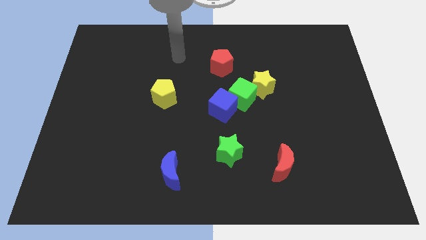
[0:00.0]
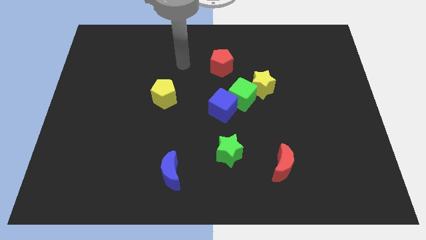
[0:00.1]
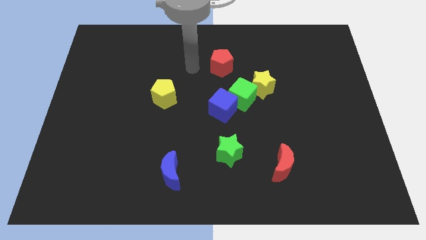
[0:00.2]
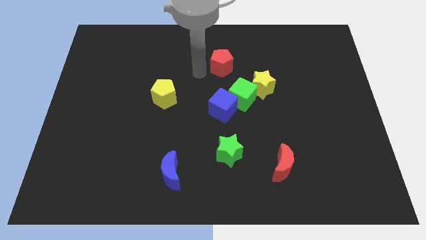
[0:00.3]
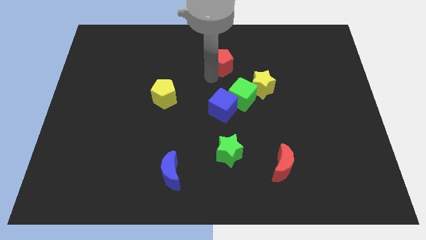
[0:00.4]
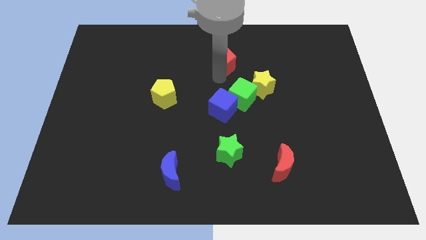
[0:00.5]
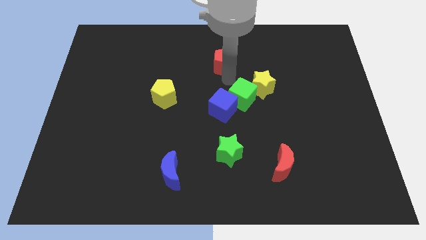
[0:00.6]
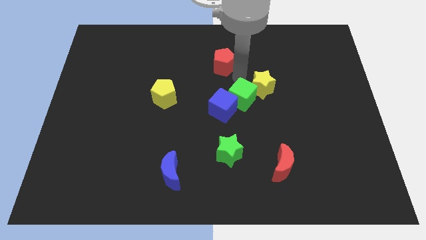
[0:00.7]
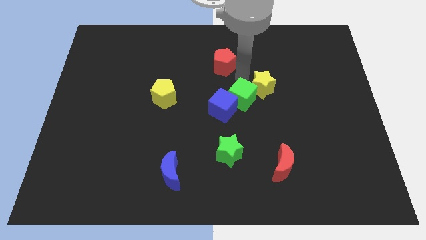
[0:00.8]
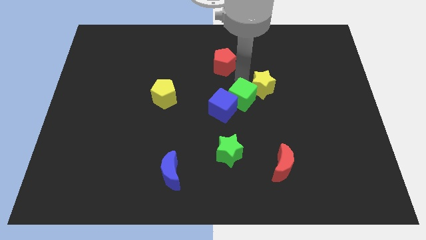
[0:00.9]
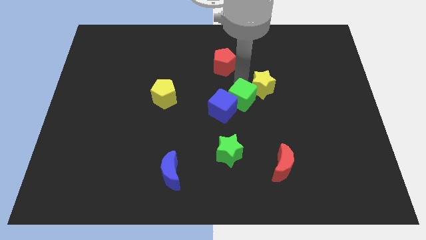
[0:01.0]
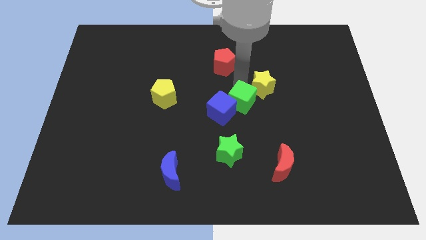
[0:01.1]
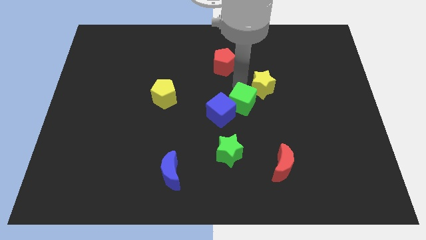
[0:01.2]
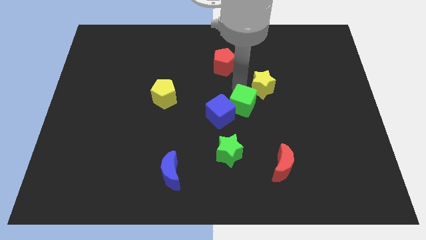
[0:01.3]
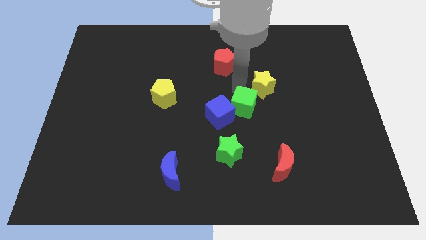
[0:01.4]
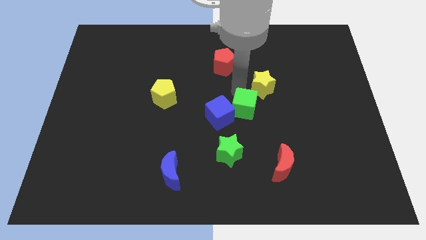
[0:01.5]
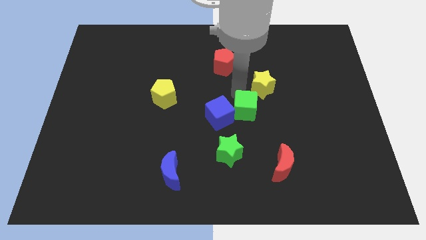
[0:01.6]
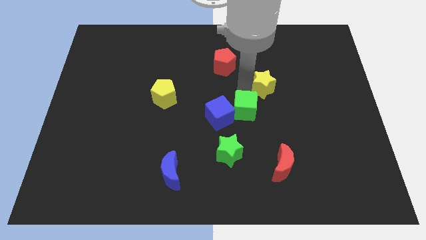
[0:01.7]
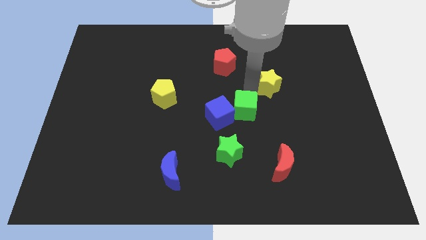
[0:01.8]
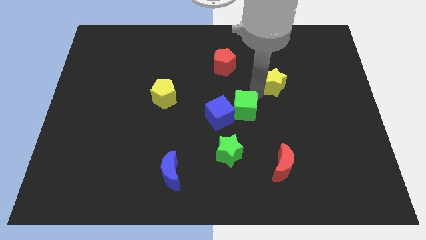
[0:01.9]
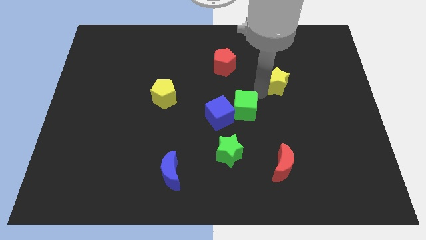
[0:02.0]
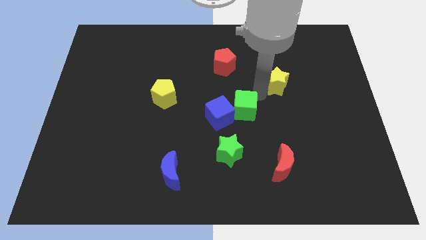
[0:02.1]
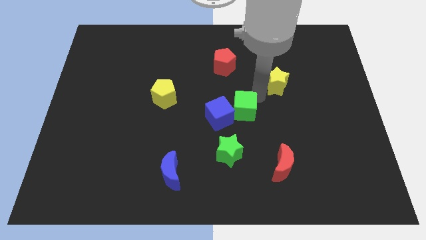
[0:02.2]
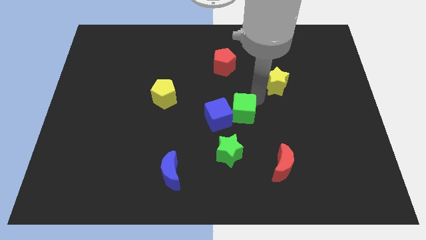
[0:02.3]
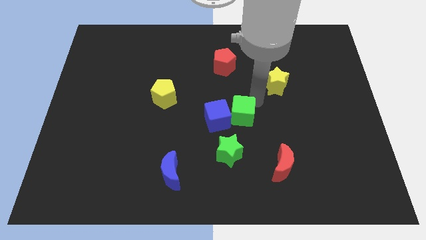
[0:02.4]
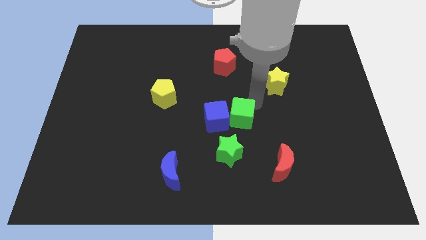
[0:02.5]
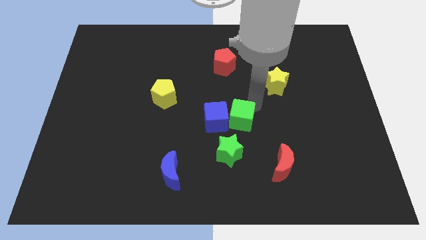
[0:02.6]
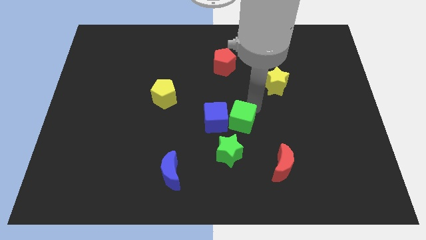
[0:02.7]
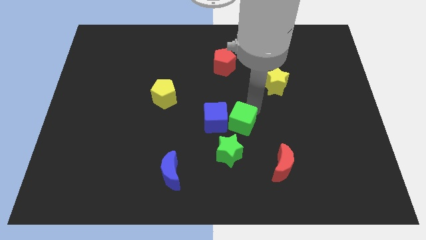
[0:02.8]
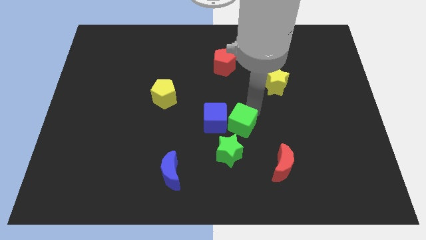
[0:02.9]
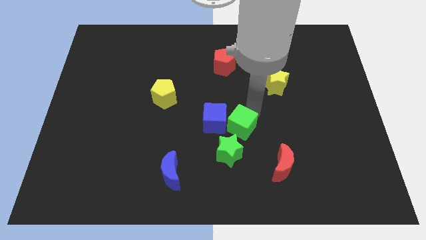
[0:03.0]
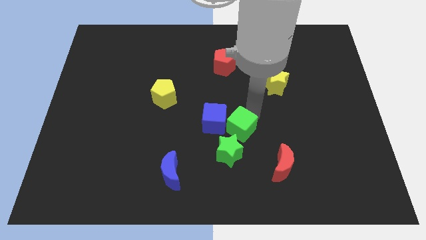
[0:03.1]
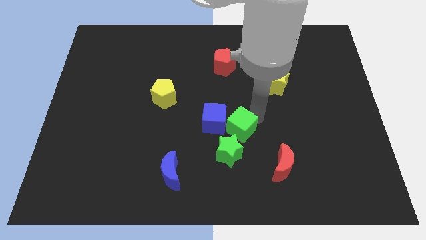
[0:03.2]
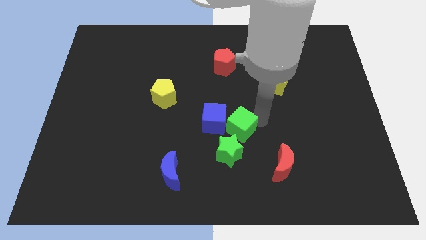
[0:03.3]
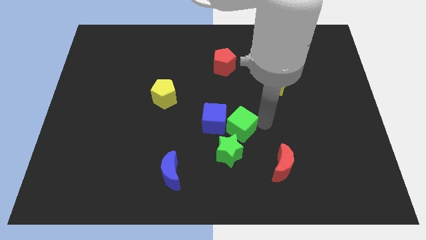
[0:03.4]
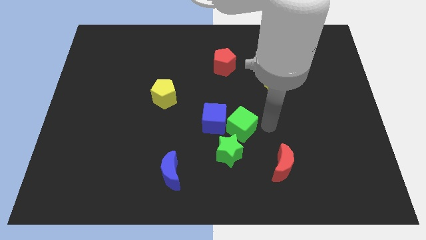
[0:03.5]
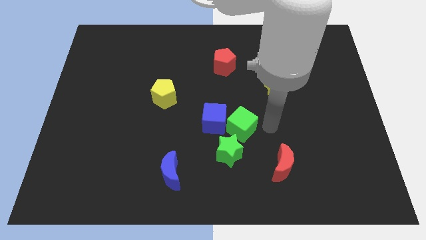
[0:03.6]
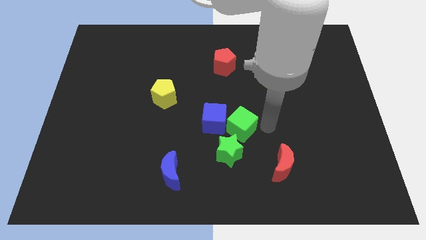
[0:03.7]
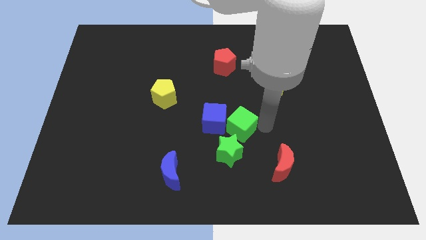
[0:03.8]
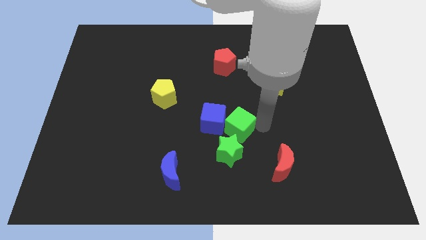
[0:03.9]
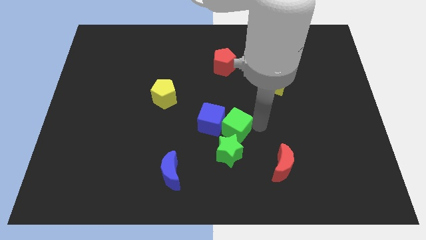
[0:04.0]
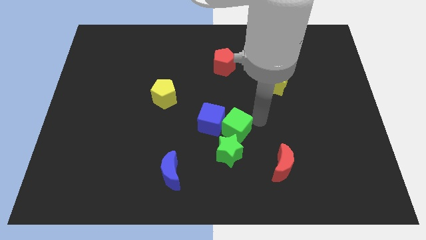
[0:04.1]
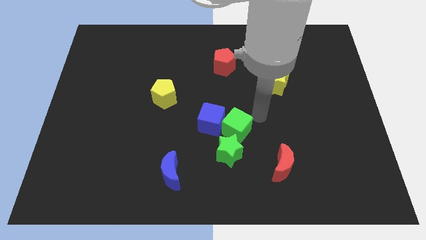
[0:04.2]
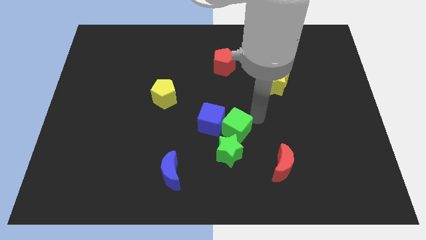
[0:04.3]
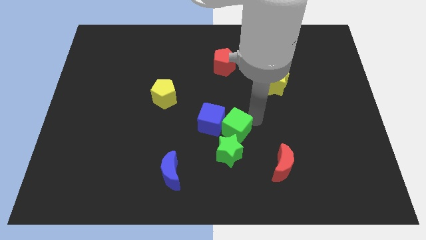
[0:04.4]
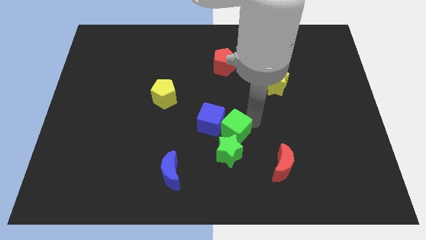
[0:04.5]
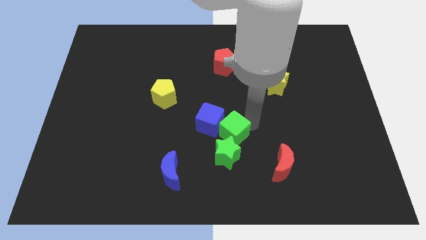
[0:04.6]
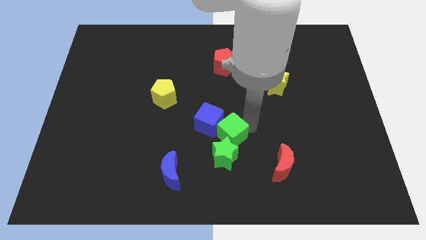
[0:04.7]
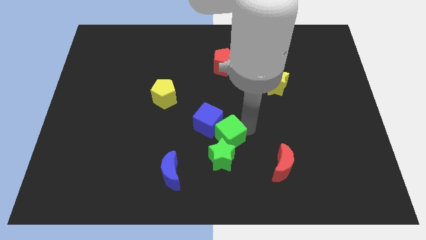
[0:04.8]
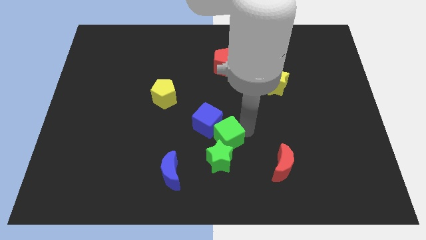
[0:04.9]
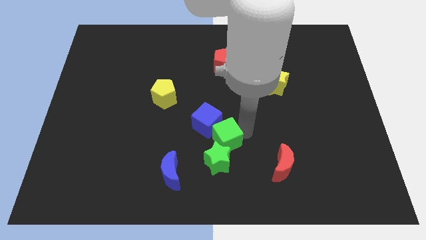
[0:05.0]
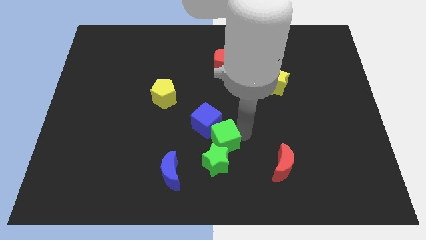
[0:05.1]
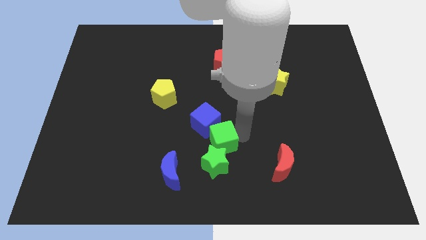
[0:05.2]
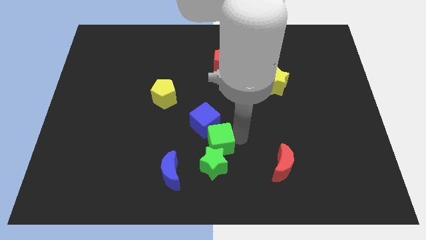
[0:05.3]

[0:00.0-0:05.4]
push the green cube to the top right of the blue moon
